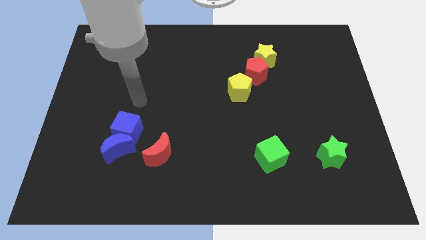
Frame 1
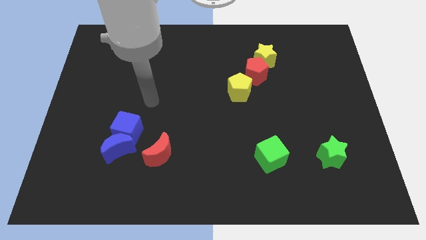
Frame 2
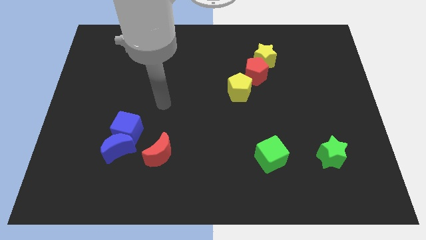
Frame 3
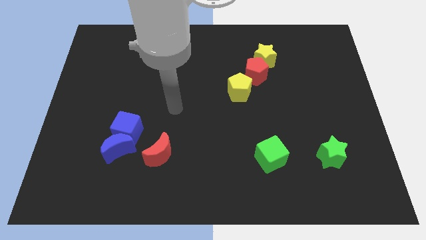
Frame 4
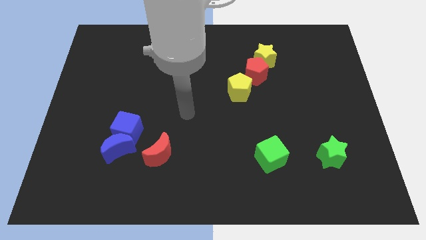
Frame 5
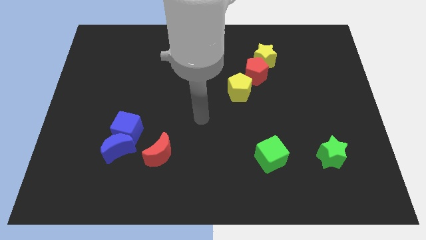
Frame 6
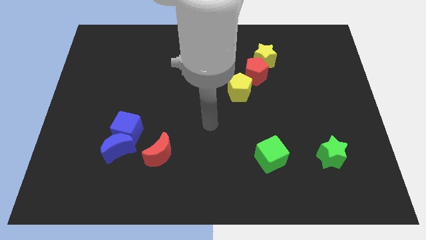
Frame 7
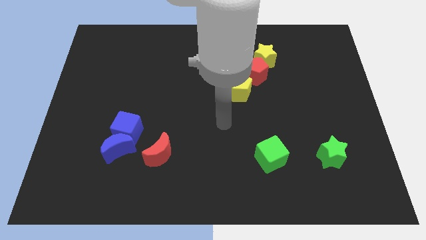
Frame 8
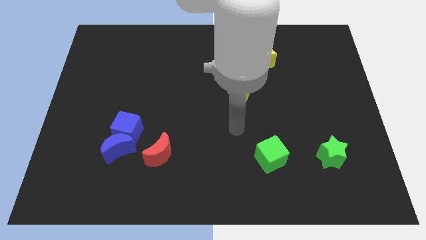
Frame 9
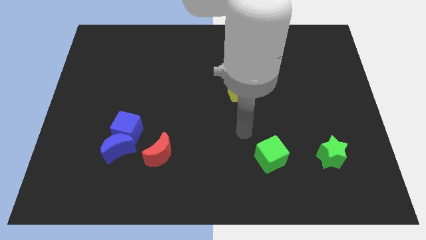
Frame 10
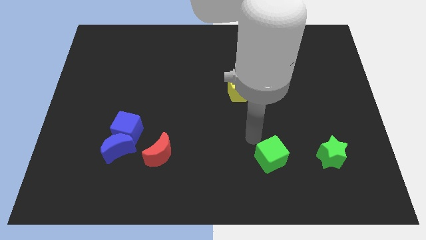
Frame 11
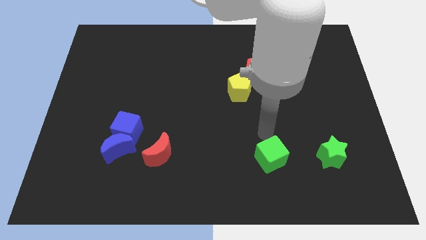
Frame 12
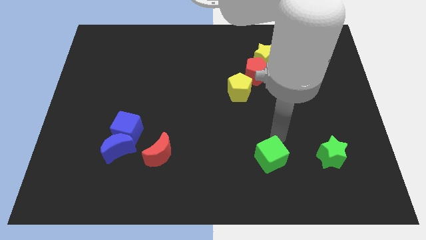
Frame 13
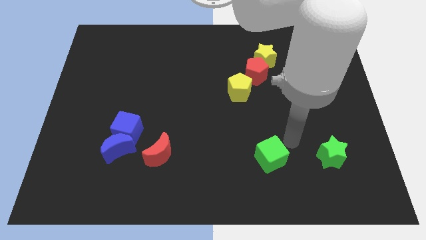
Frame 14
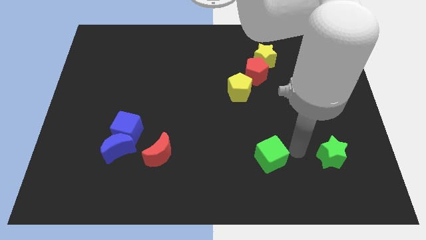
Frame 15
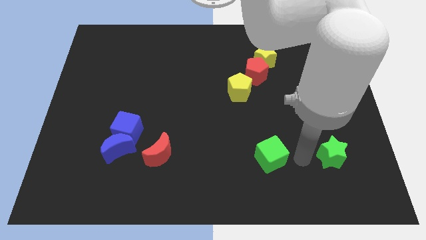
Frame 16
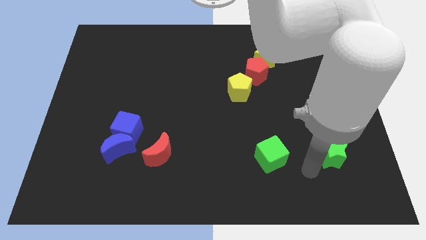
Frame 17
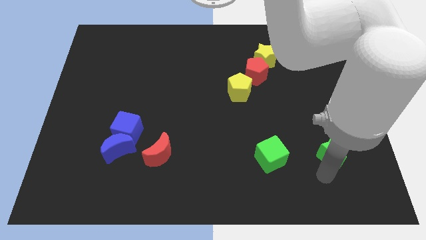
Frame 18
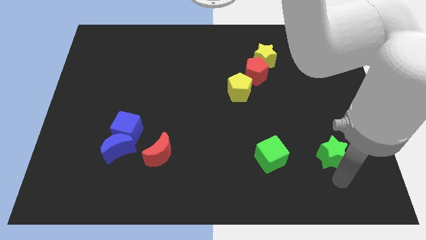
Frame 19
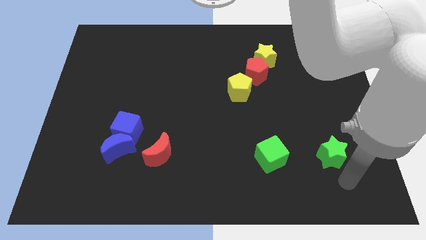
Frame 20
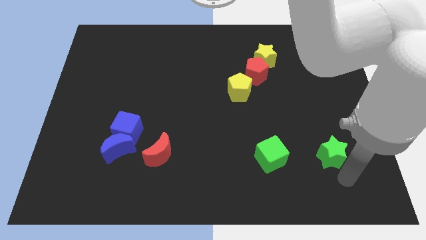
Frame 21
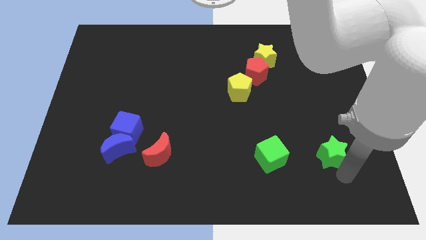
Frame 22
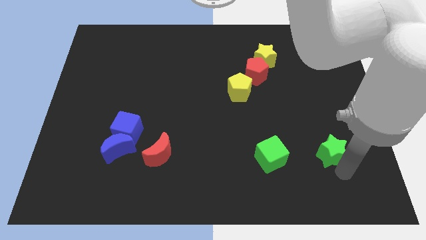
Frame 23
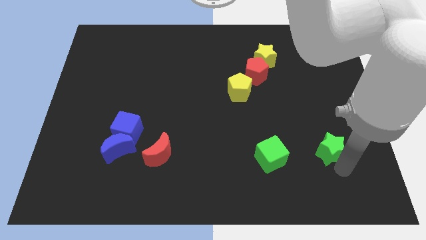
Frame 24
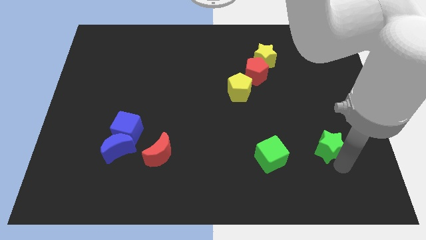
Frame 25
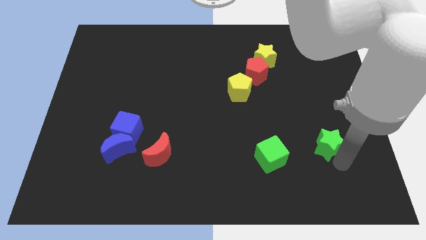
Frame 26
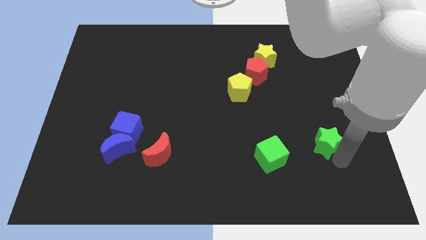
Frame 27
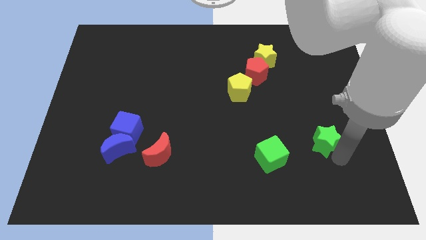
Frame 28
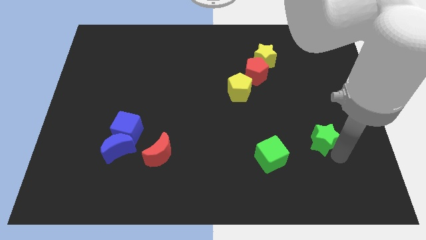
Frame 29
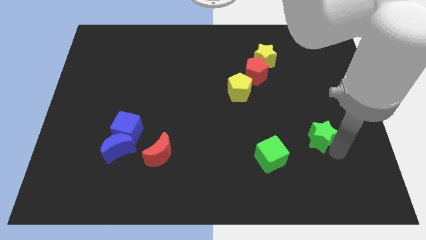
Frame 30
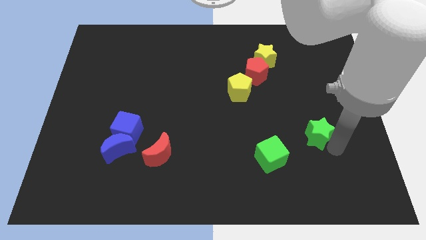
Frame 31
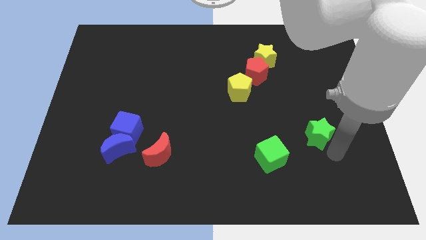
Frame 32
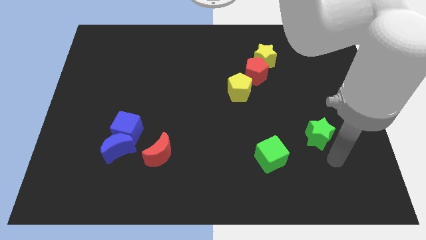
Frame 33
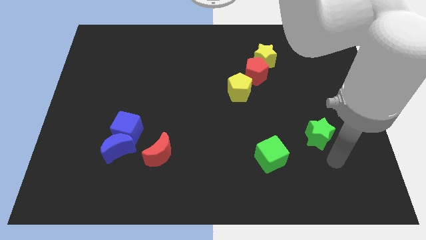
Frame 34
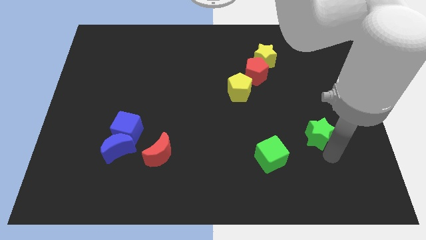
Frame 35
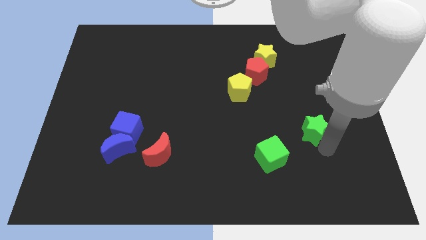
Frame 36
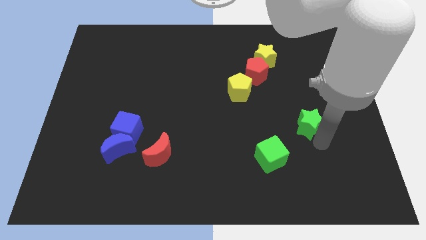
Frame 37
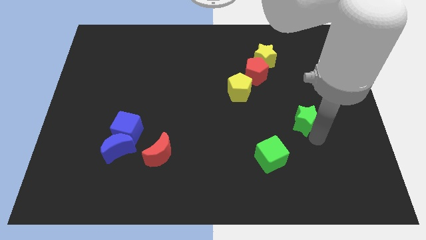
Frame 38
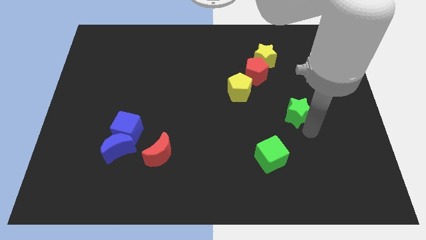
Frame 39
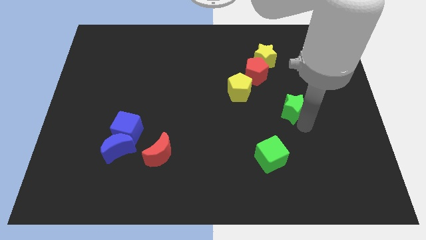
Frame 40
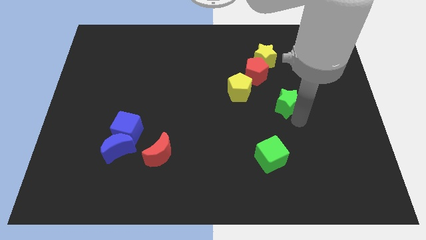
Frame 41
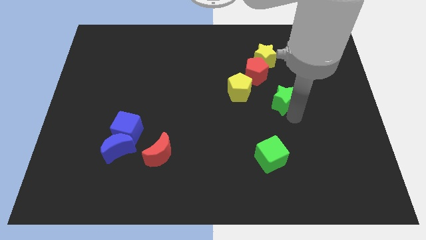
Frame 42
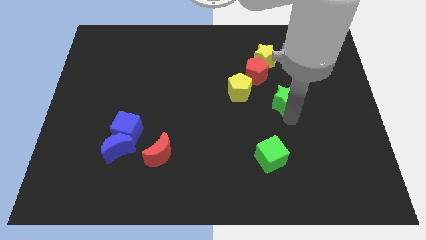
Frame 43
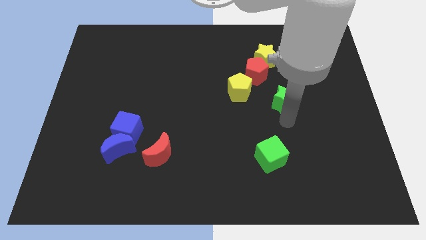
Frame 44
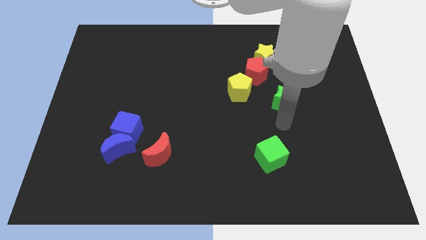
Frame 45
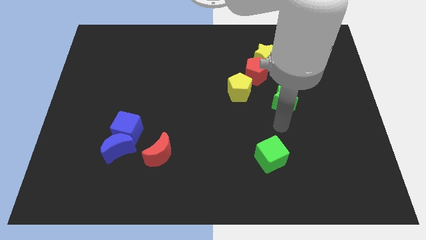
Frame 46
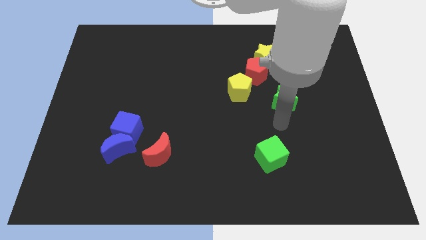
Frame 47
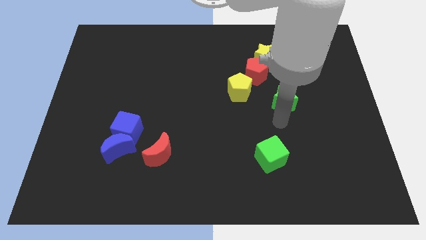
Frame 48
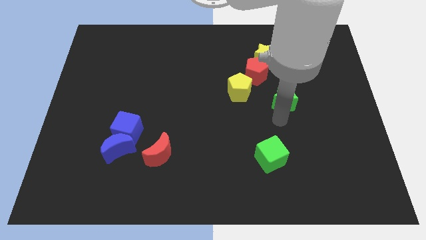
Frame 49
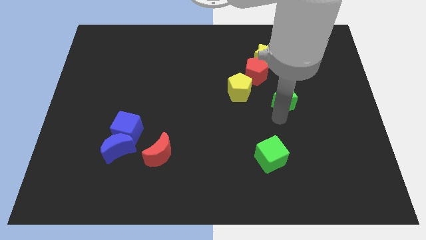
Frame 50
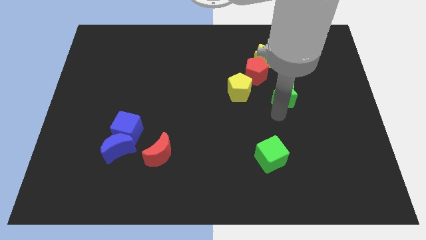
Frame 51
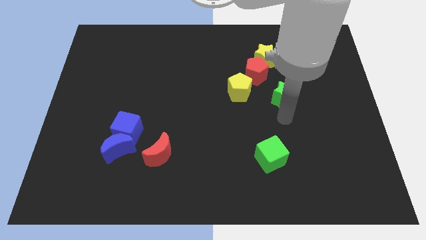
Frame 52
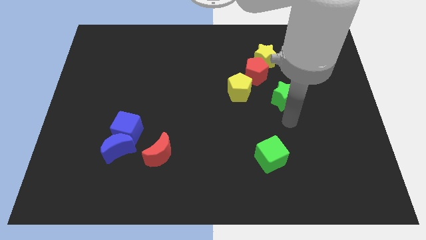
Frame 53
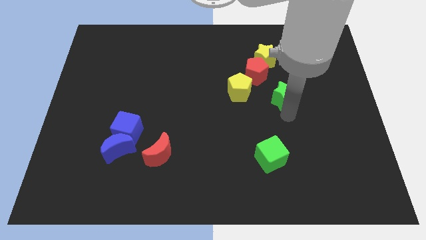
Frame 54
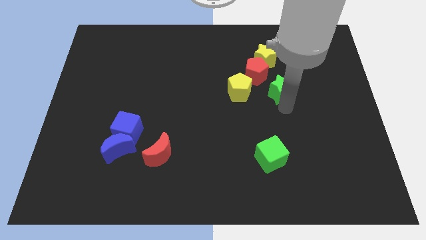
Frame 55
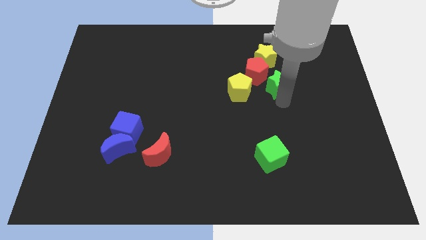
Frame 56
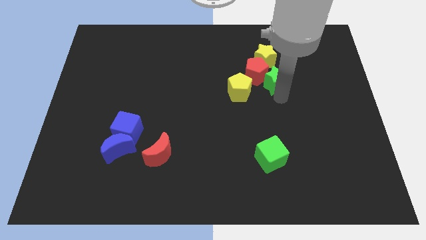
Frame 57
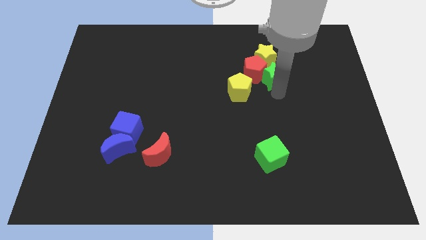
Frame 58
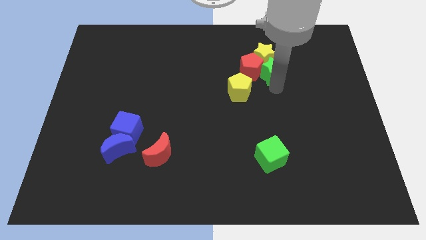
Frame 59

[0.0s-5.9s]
put the green star towards the yellow star

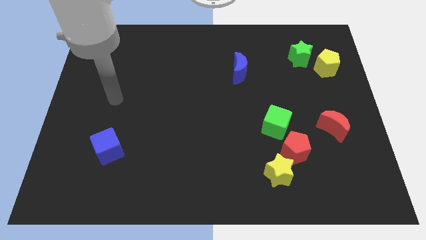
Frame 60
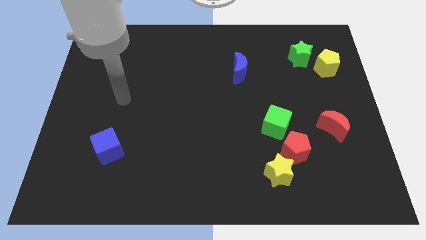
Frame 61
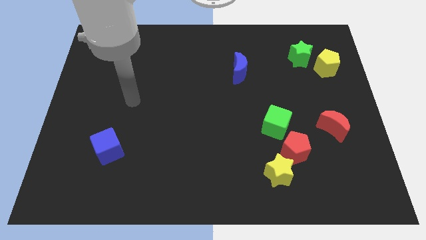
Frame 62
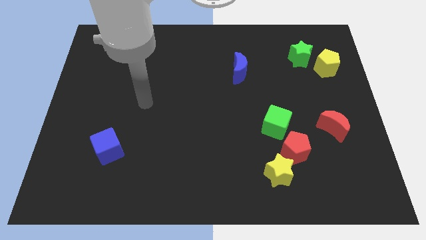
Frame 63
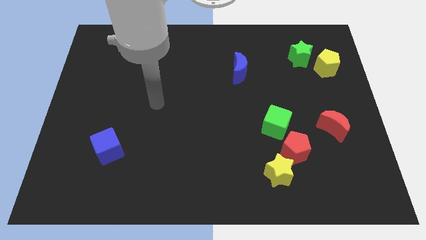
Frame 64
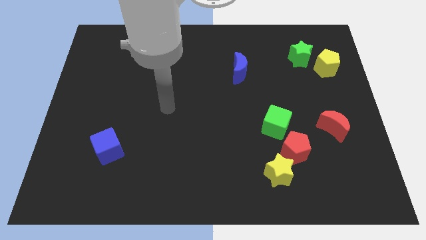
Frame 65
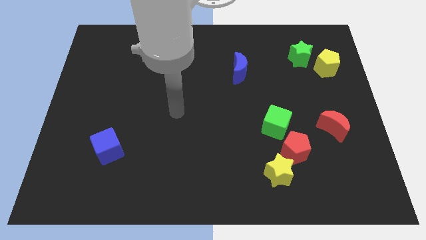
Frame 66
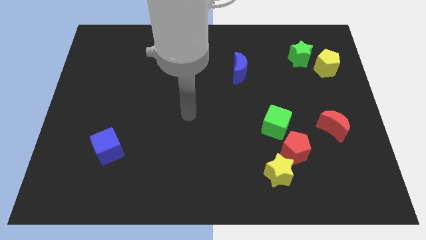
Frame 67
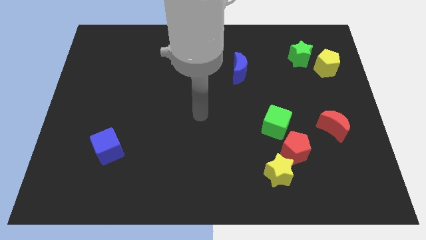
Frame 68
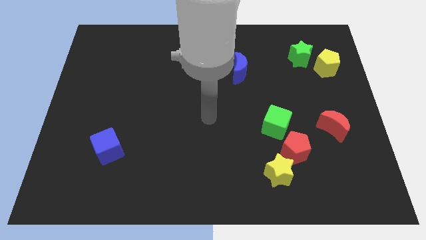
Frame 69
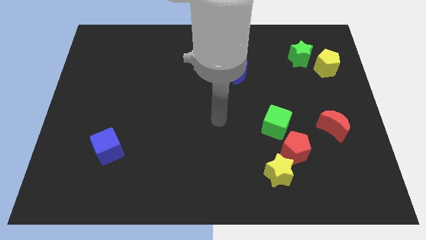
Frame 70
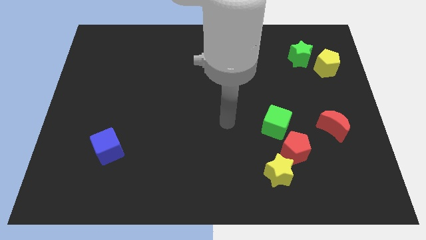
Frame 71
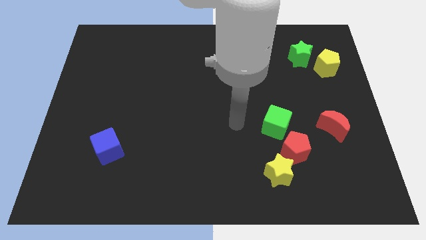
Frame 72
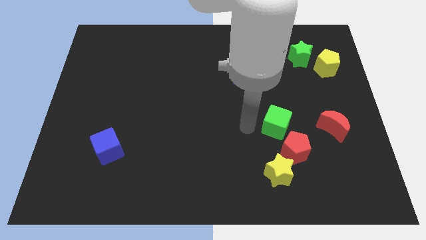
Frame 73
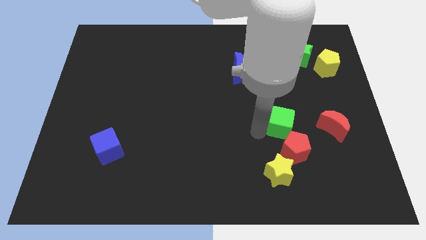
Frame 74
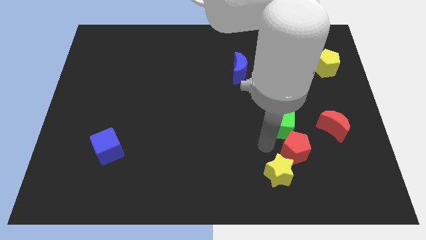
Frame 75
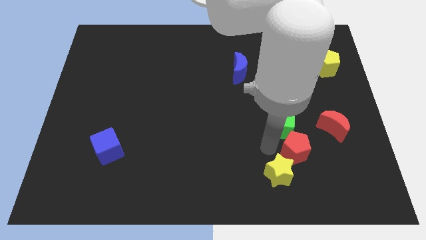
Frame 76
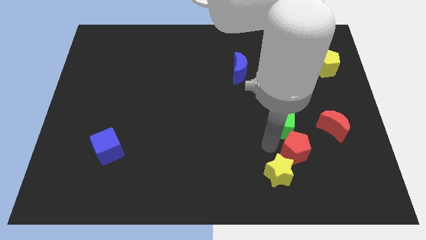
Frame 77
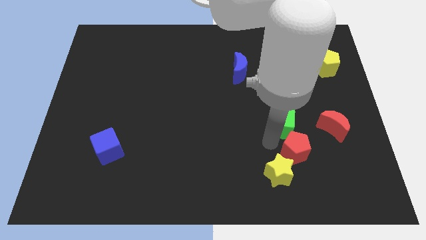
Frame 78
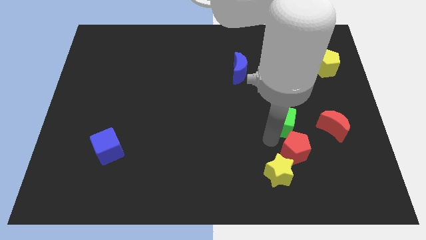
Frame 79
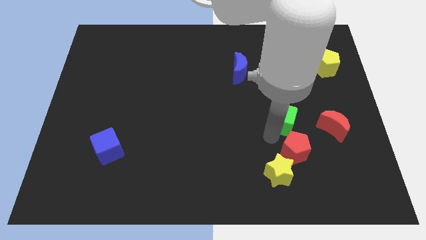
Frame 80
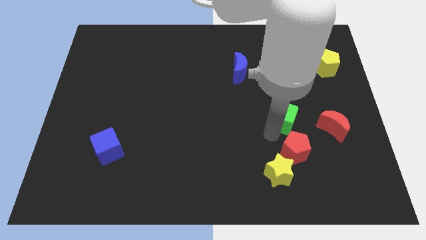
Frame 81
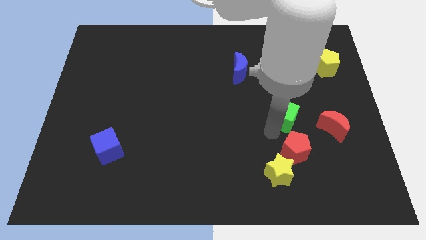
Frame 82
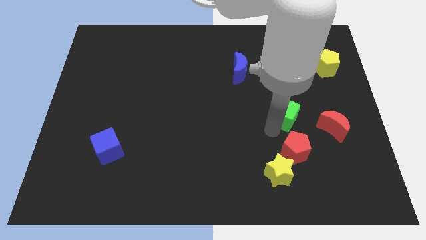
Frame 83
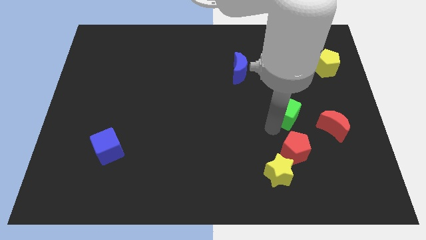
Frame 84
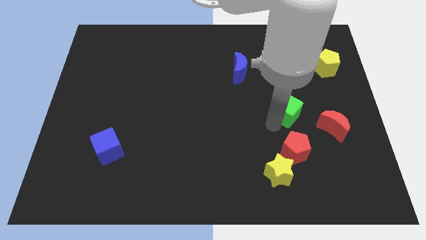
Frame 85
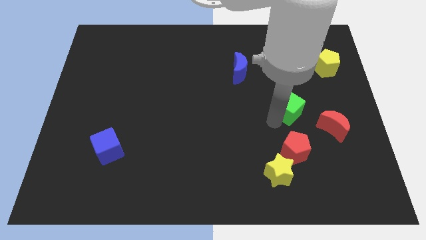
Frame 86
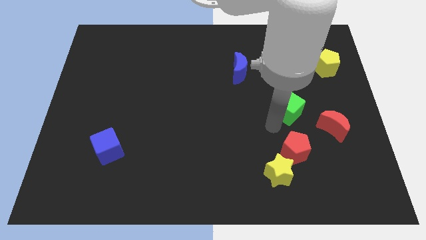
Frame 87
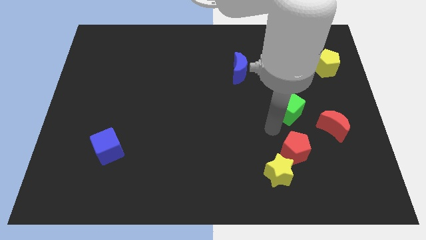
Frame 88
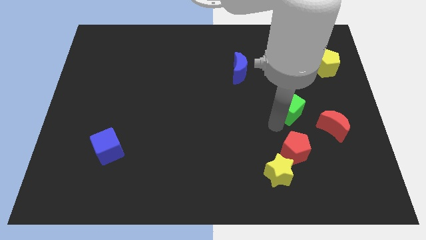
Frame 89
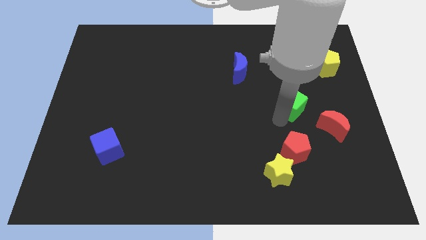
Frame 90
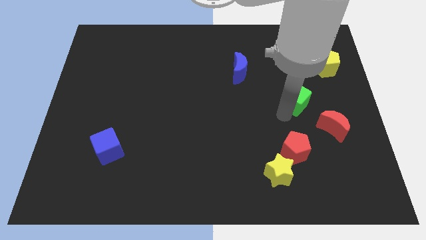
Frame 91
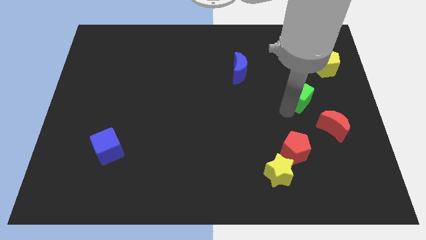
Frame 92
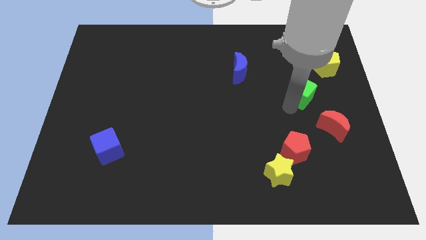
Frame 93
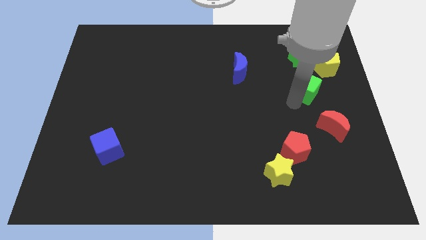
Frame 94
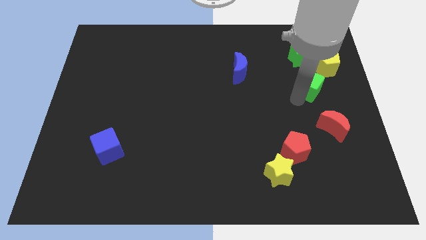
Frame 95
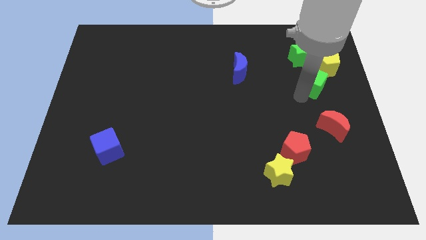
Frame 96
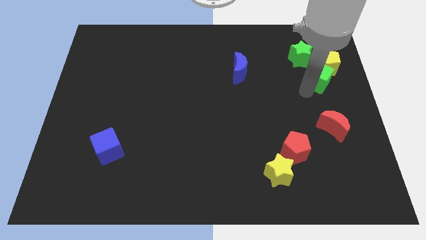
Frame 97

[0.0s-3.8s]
slide the green cube to the yellow pentagon
